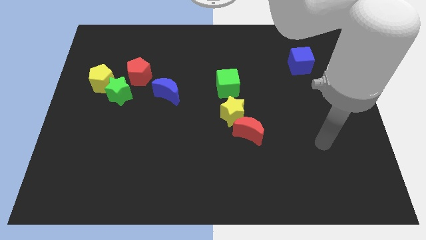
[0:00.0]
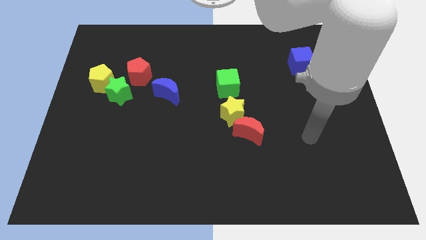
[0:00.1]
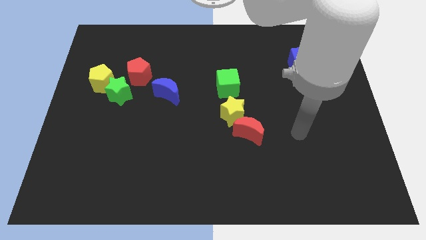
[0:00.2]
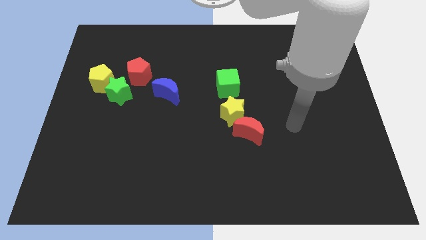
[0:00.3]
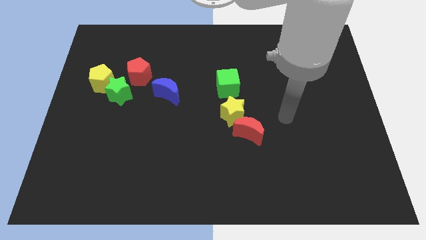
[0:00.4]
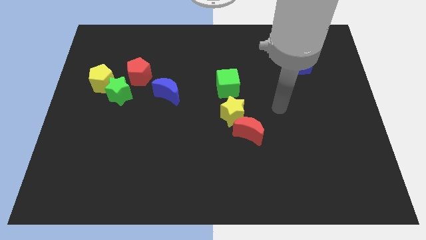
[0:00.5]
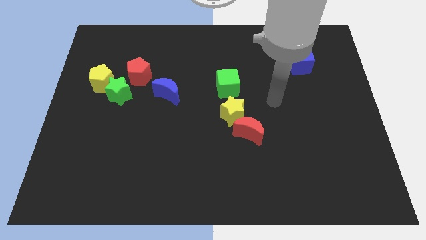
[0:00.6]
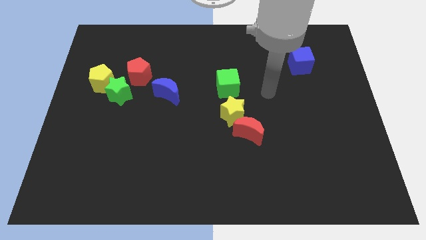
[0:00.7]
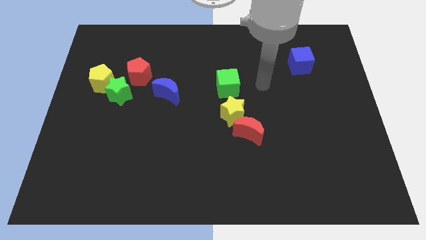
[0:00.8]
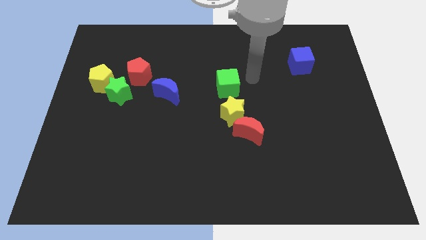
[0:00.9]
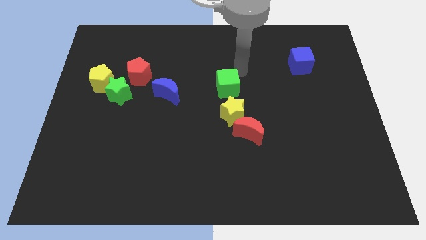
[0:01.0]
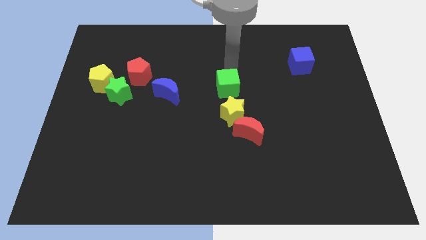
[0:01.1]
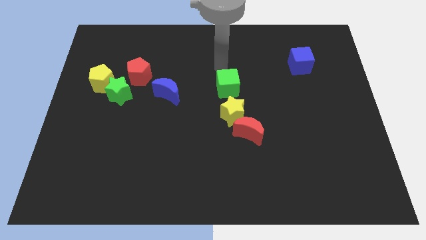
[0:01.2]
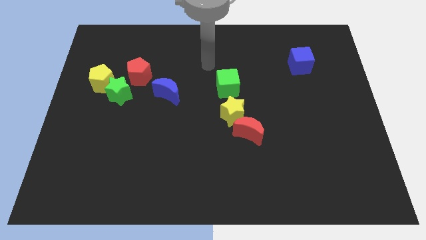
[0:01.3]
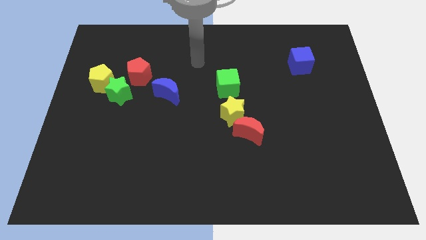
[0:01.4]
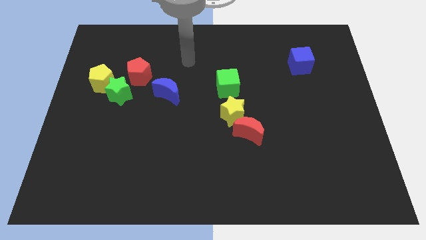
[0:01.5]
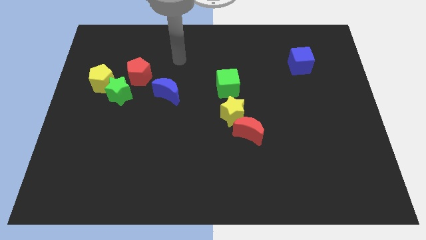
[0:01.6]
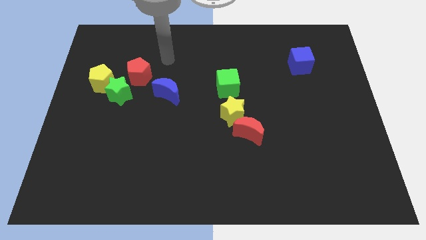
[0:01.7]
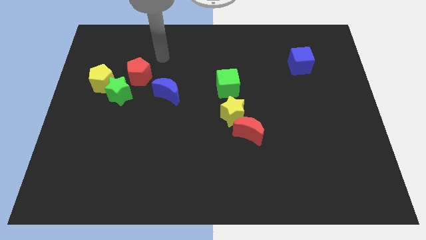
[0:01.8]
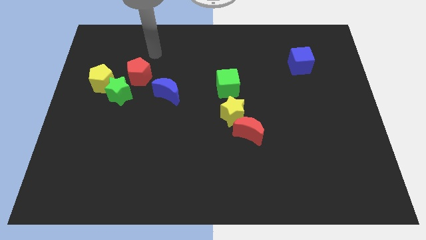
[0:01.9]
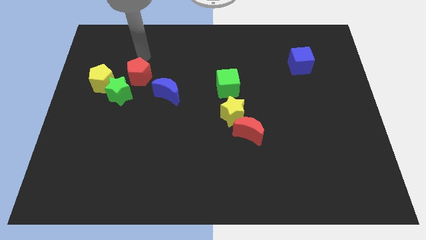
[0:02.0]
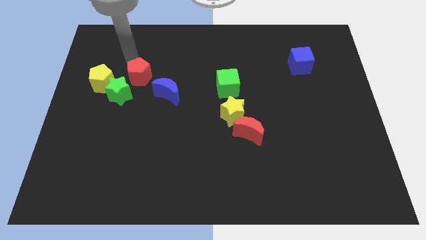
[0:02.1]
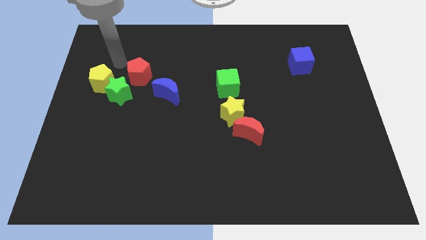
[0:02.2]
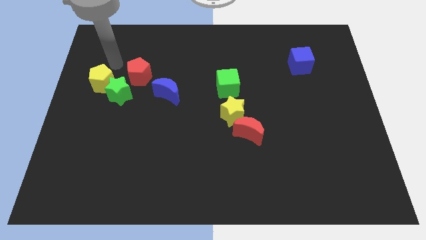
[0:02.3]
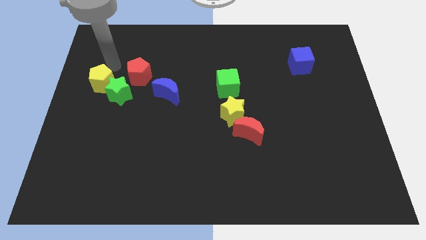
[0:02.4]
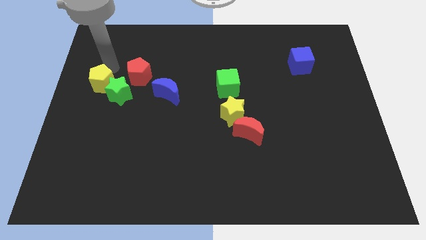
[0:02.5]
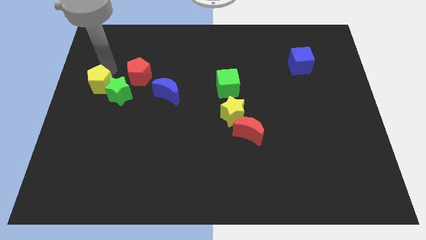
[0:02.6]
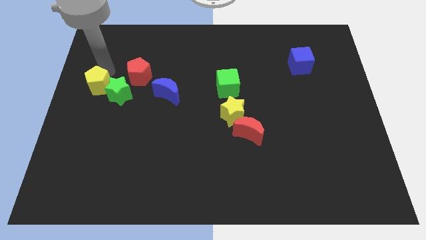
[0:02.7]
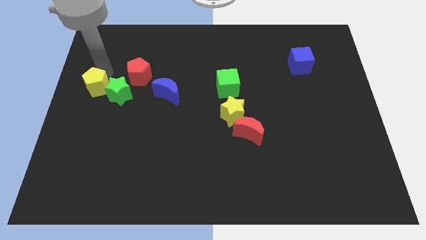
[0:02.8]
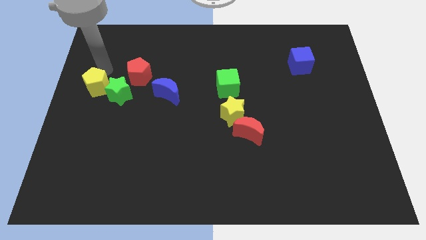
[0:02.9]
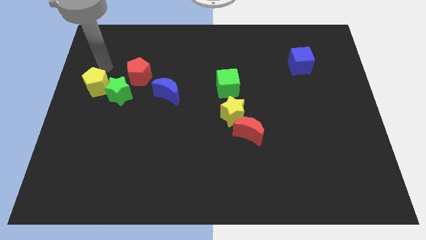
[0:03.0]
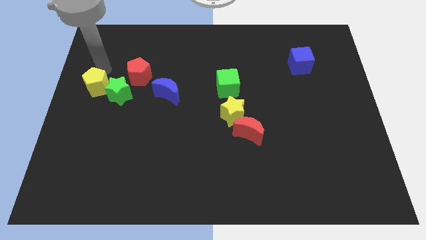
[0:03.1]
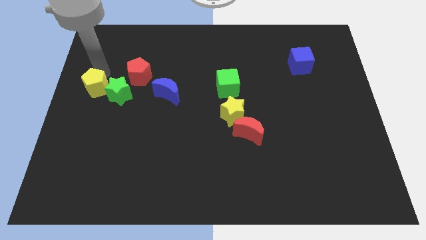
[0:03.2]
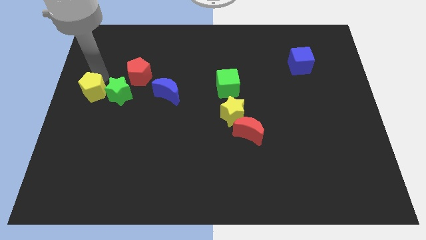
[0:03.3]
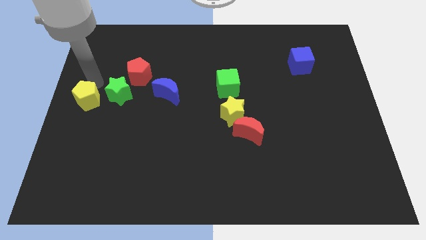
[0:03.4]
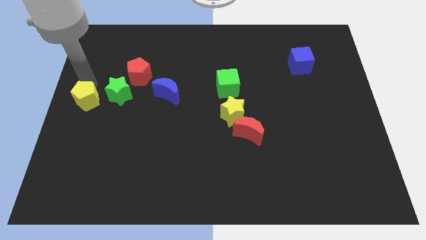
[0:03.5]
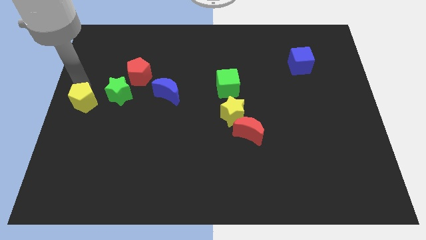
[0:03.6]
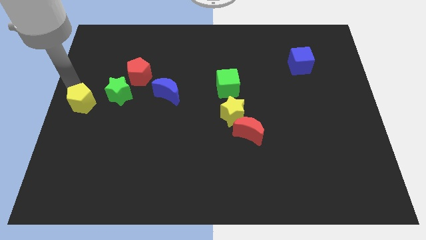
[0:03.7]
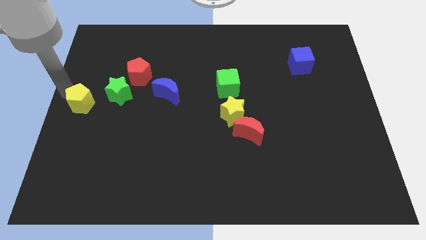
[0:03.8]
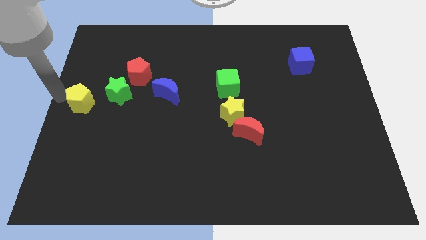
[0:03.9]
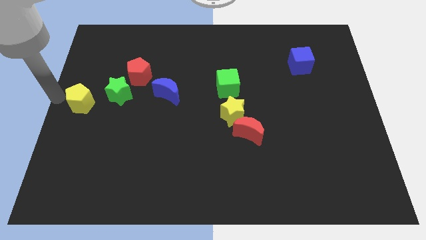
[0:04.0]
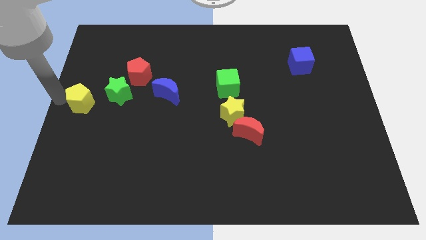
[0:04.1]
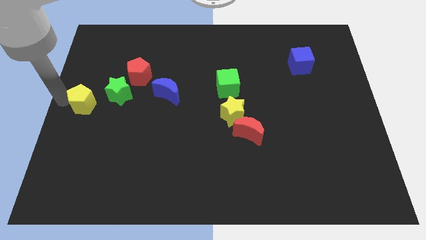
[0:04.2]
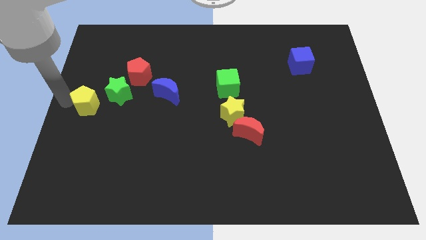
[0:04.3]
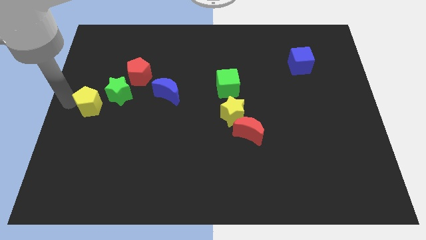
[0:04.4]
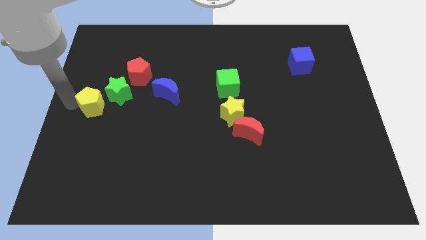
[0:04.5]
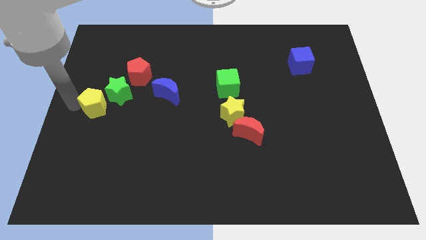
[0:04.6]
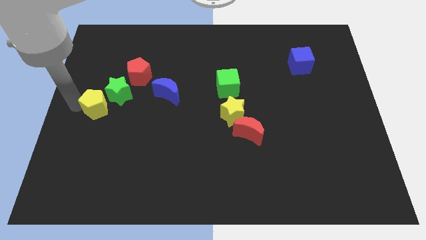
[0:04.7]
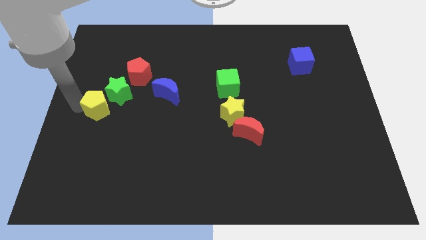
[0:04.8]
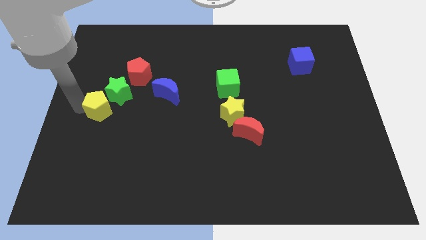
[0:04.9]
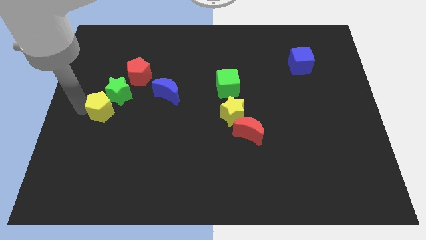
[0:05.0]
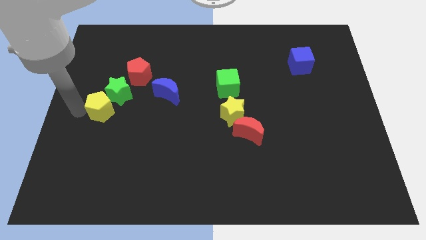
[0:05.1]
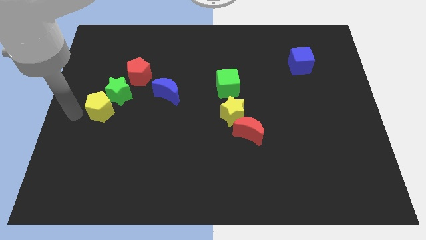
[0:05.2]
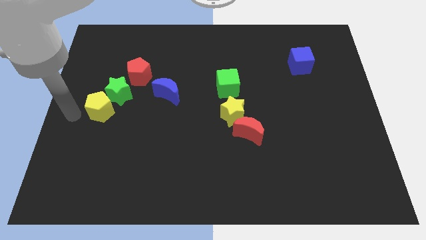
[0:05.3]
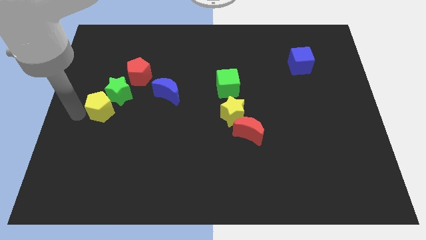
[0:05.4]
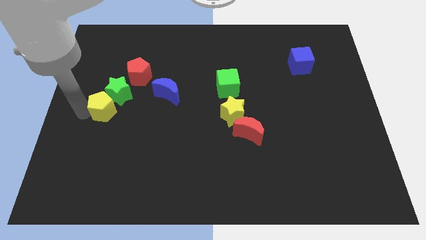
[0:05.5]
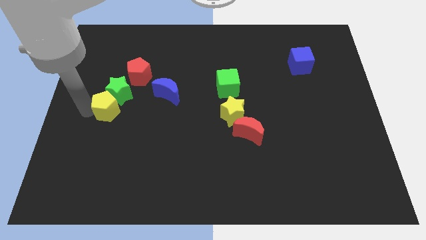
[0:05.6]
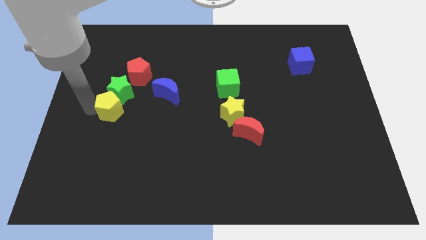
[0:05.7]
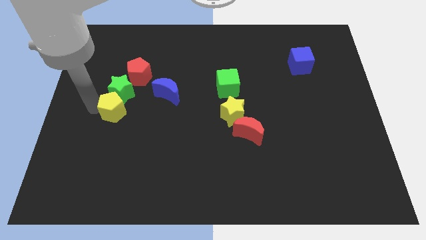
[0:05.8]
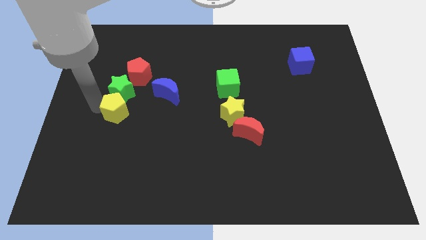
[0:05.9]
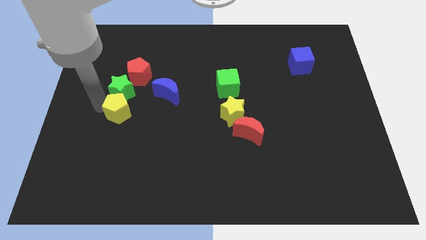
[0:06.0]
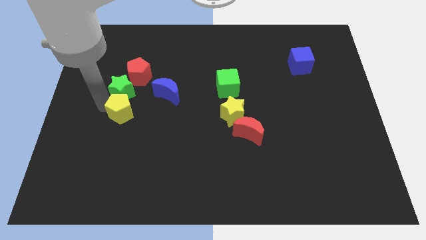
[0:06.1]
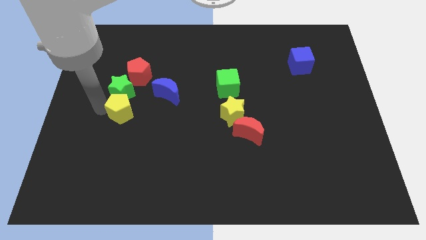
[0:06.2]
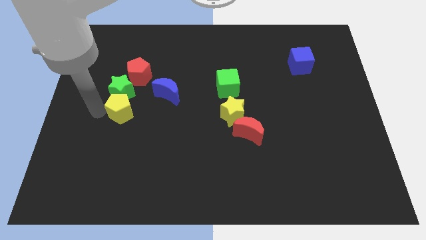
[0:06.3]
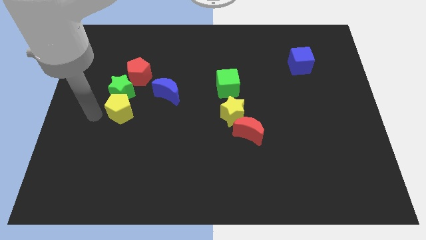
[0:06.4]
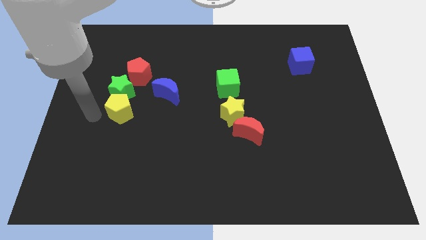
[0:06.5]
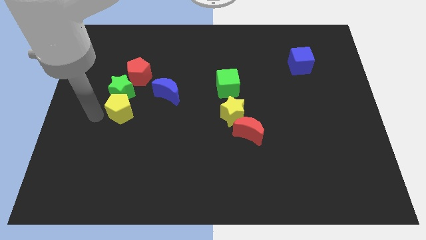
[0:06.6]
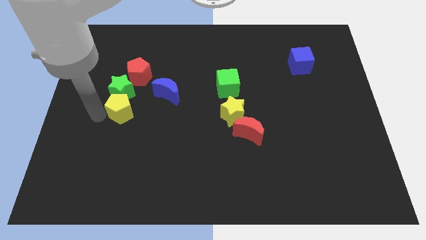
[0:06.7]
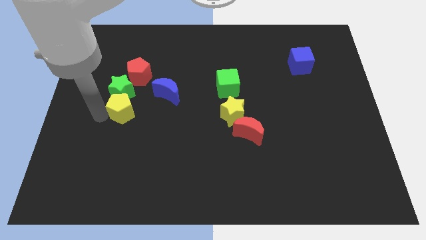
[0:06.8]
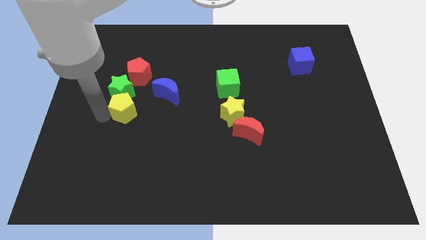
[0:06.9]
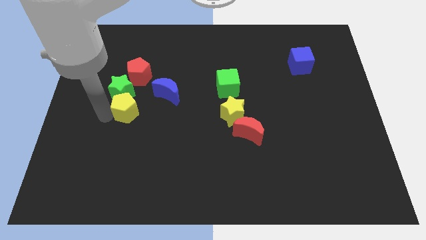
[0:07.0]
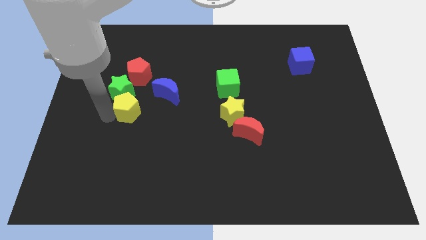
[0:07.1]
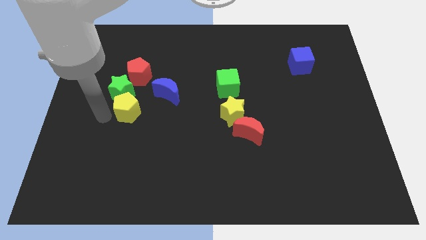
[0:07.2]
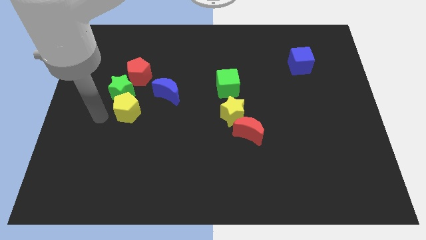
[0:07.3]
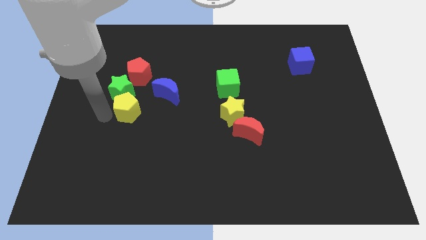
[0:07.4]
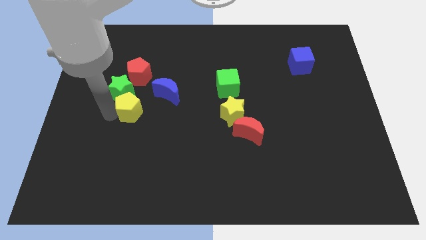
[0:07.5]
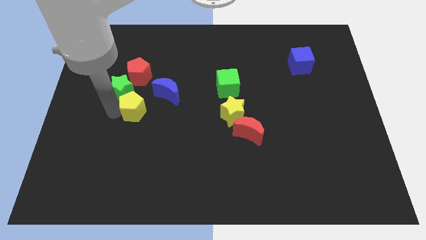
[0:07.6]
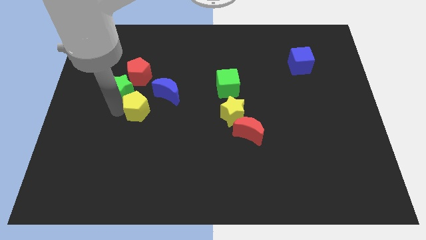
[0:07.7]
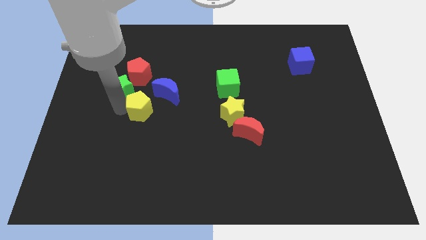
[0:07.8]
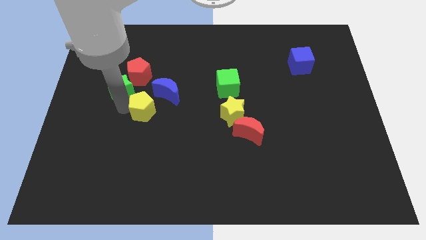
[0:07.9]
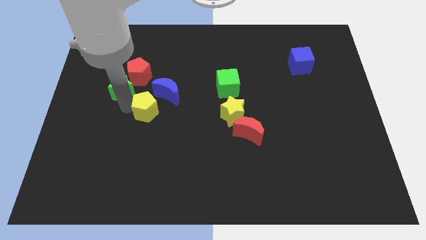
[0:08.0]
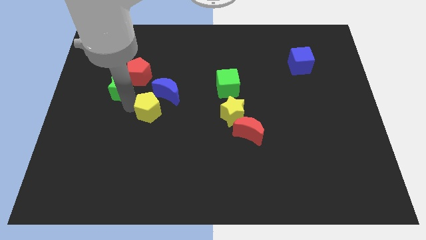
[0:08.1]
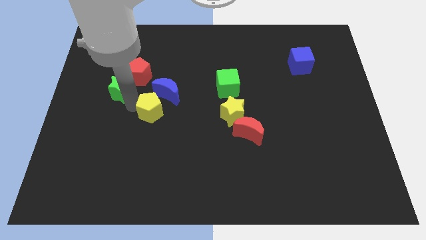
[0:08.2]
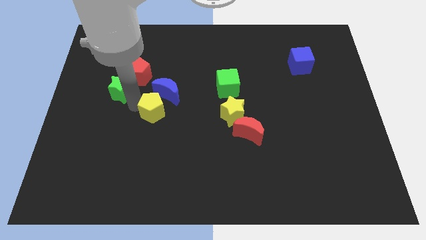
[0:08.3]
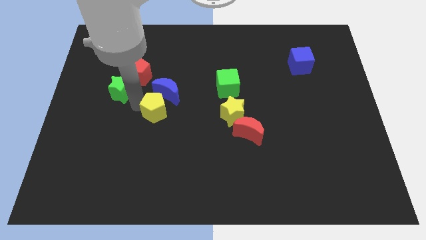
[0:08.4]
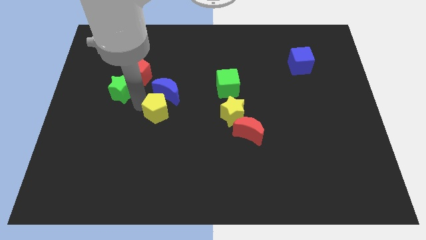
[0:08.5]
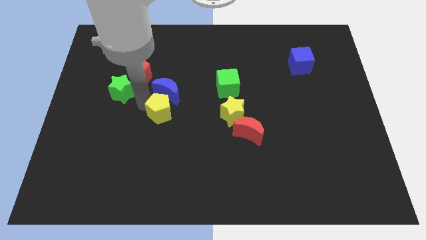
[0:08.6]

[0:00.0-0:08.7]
move the yellow pentagon to the center of the board
